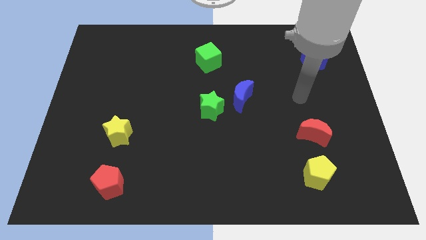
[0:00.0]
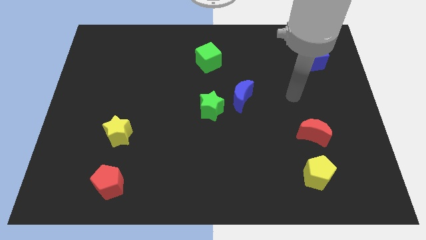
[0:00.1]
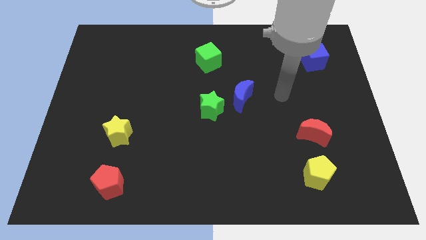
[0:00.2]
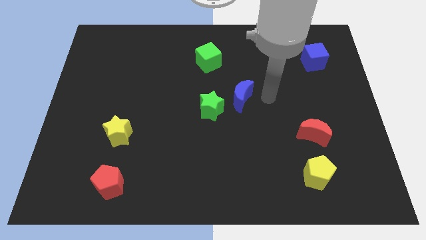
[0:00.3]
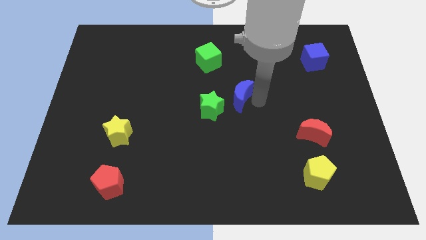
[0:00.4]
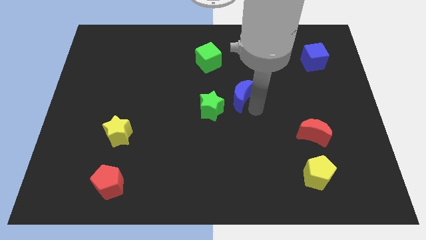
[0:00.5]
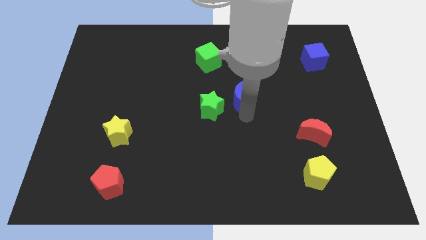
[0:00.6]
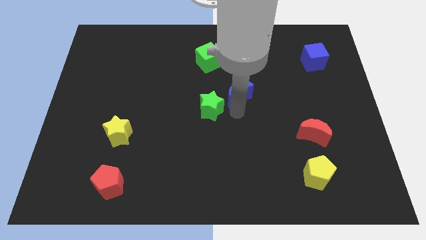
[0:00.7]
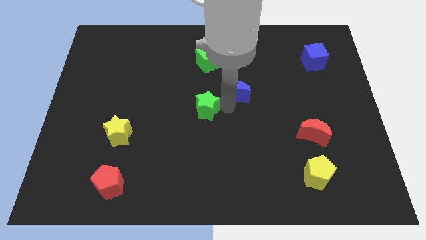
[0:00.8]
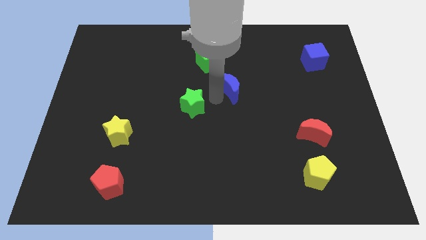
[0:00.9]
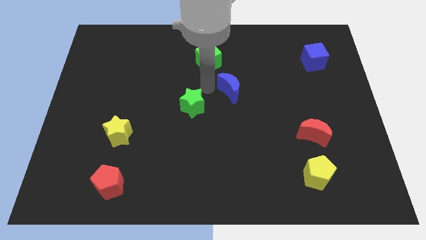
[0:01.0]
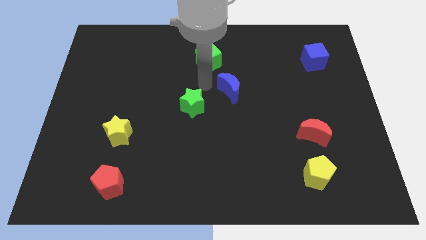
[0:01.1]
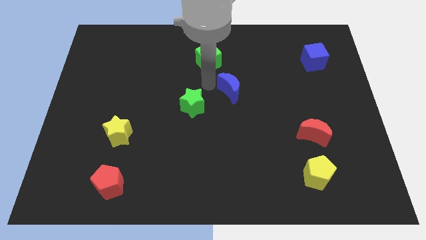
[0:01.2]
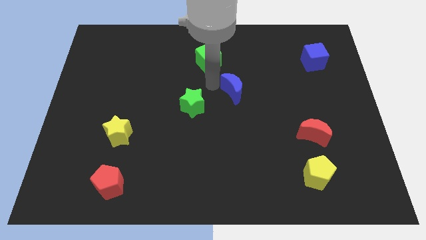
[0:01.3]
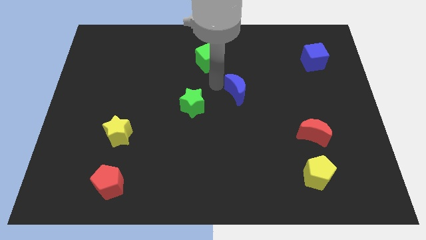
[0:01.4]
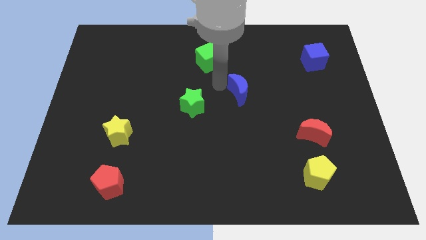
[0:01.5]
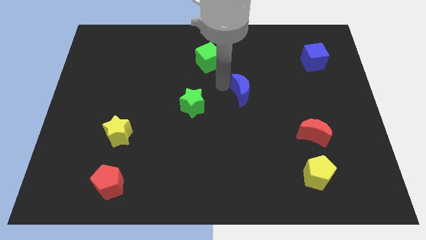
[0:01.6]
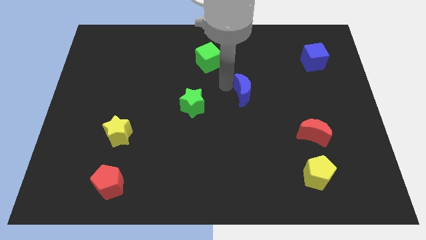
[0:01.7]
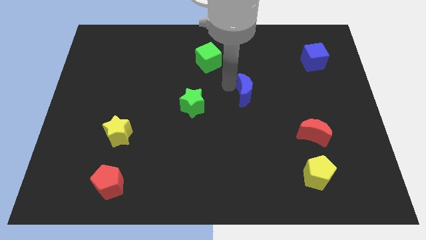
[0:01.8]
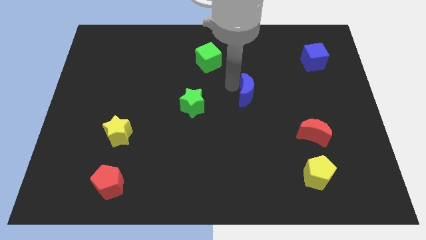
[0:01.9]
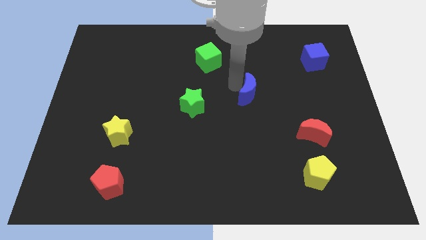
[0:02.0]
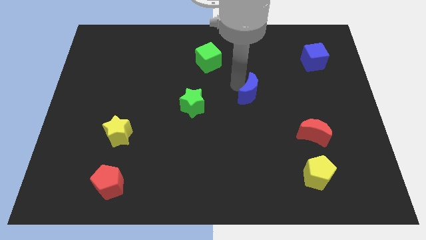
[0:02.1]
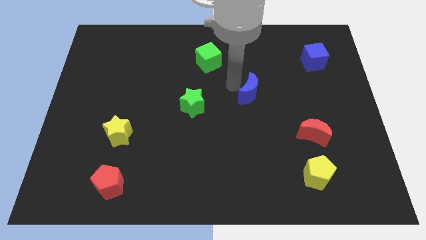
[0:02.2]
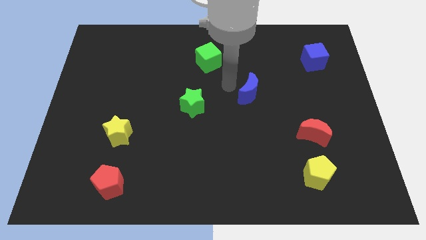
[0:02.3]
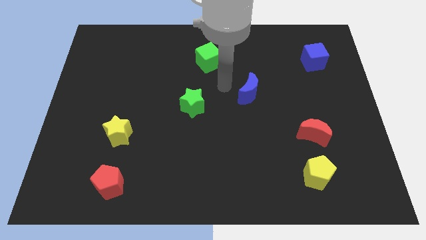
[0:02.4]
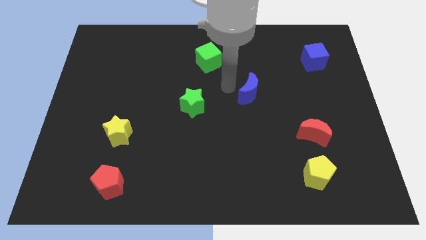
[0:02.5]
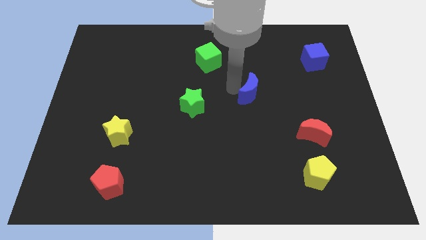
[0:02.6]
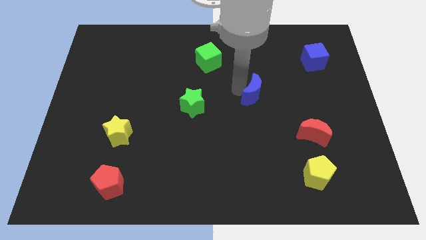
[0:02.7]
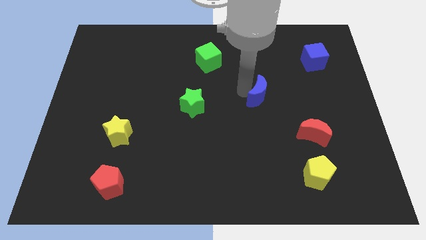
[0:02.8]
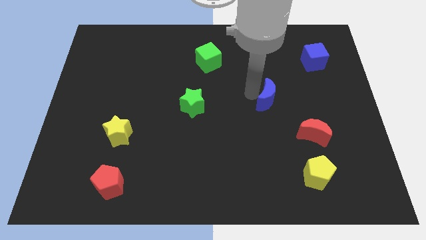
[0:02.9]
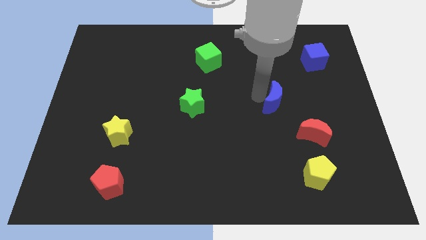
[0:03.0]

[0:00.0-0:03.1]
push the blue moon a bit to the right

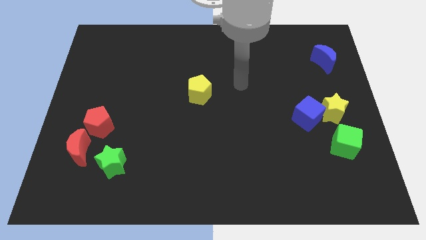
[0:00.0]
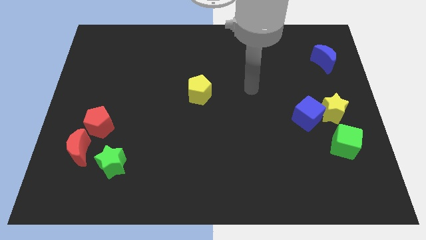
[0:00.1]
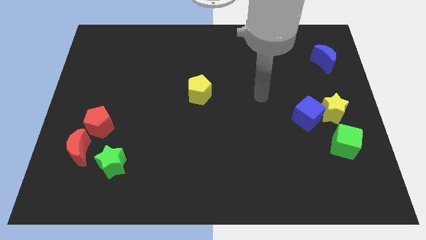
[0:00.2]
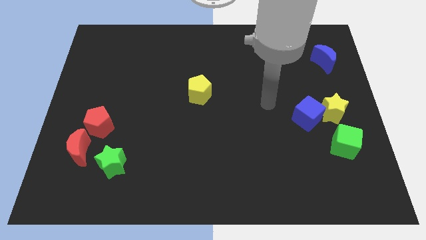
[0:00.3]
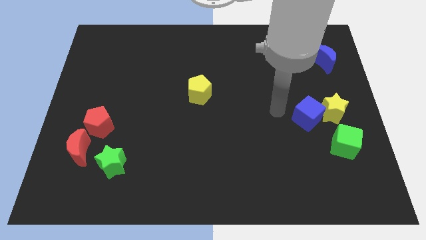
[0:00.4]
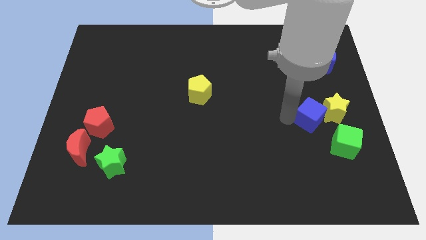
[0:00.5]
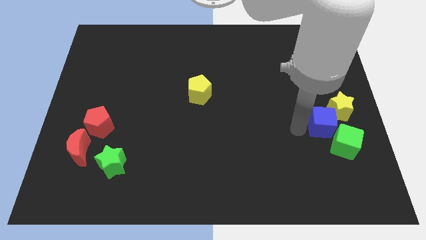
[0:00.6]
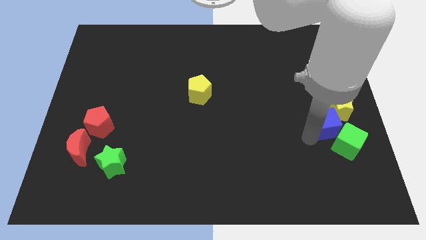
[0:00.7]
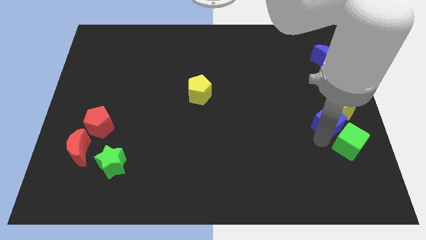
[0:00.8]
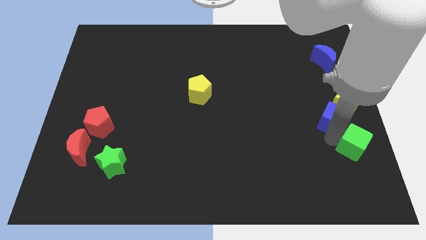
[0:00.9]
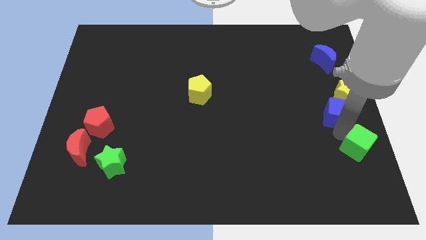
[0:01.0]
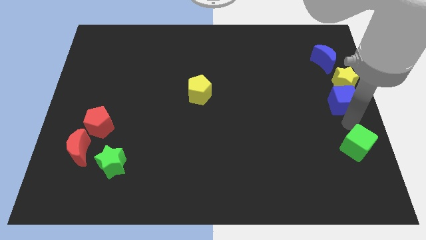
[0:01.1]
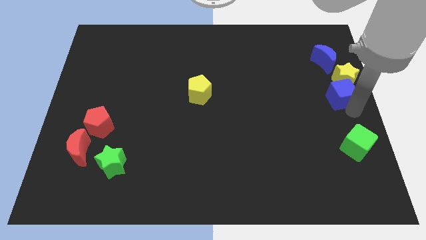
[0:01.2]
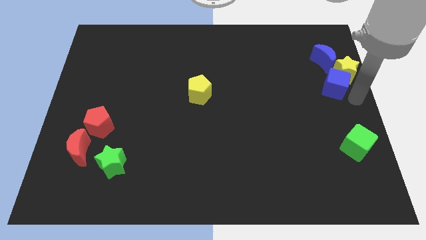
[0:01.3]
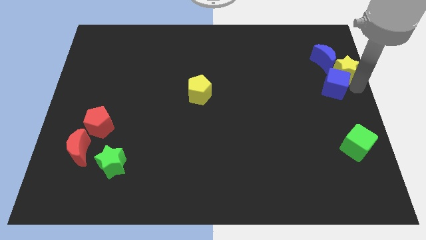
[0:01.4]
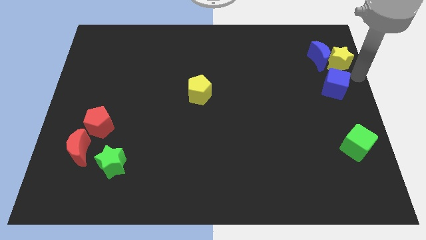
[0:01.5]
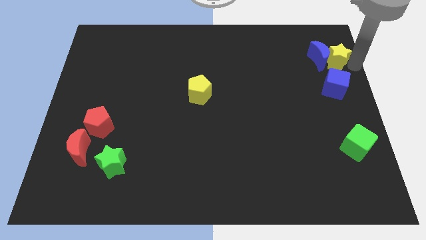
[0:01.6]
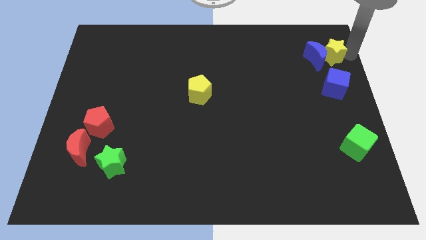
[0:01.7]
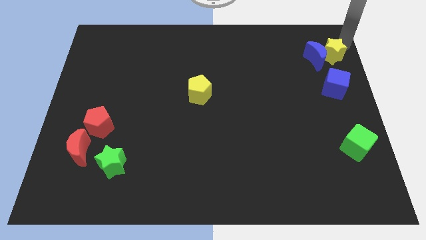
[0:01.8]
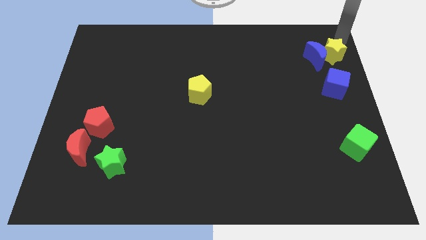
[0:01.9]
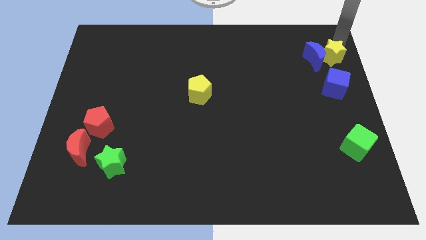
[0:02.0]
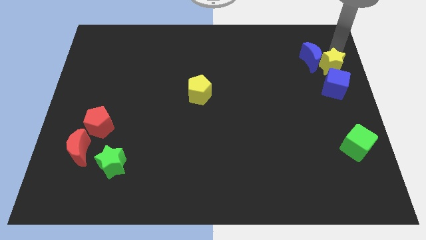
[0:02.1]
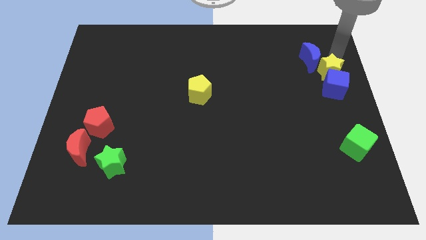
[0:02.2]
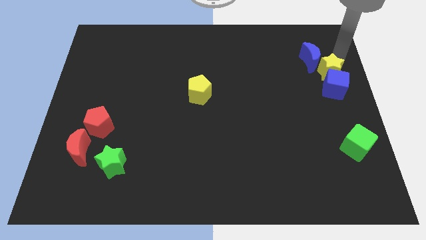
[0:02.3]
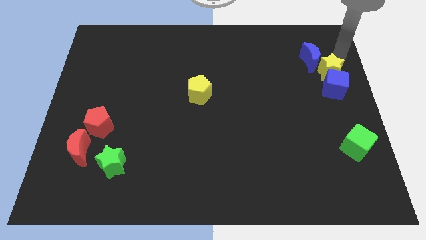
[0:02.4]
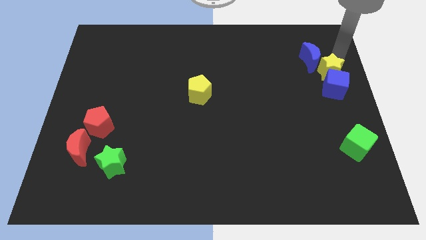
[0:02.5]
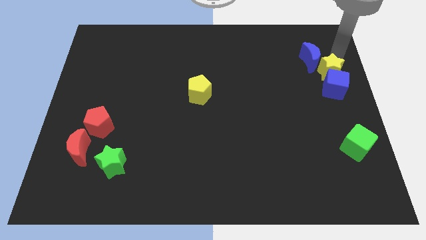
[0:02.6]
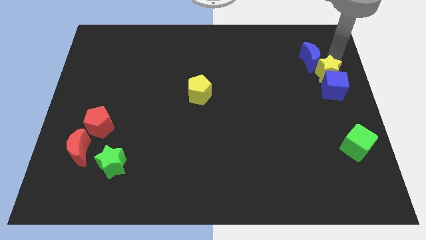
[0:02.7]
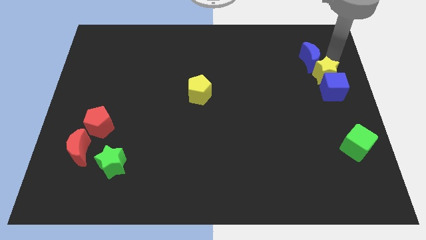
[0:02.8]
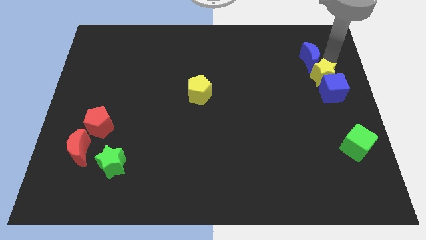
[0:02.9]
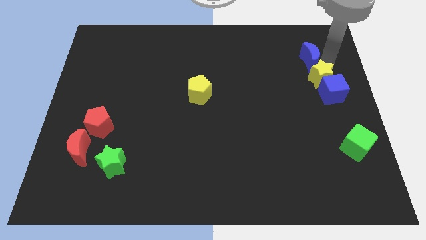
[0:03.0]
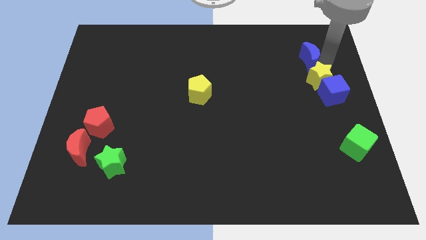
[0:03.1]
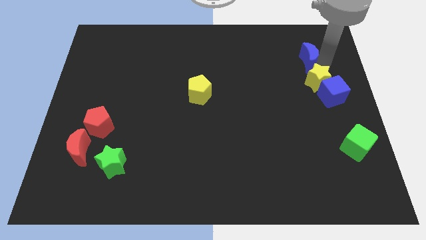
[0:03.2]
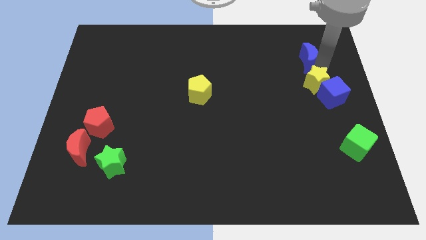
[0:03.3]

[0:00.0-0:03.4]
slightly push the yellow star upwards and to the left

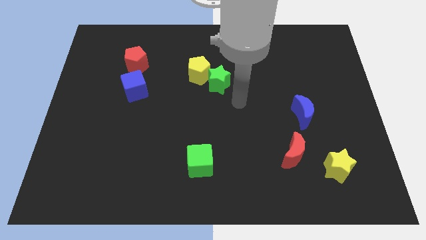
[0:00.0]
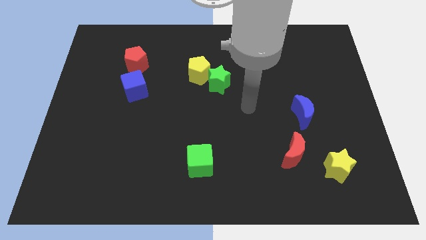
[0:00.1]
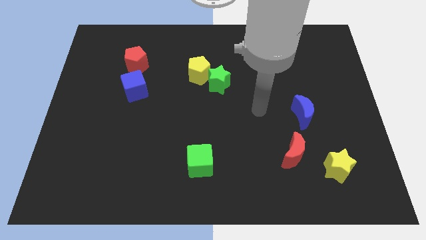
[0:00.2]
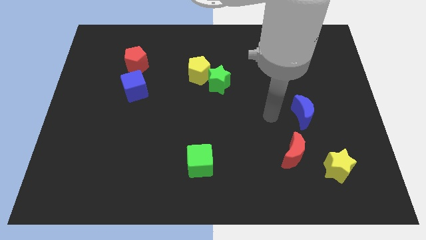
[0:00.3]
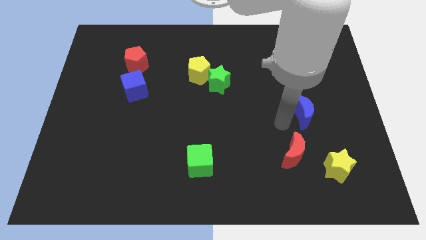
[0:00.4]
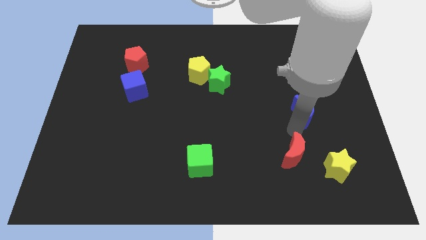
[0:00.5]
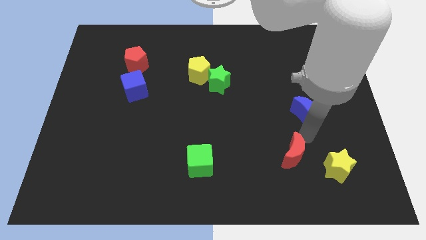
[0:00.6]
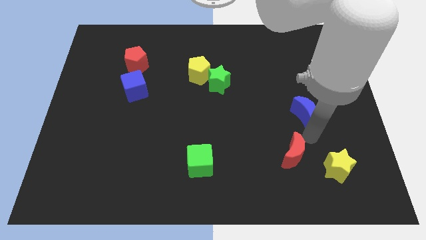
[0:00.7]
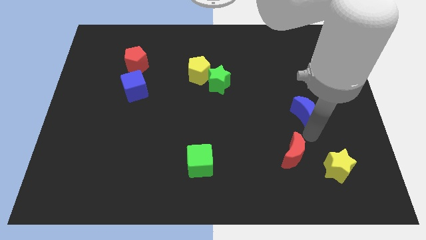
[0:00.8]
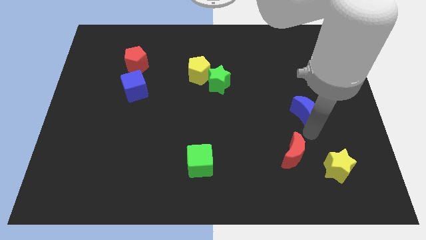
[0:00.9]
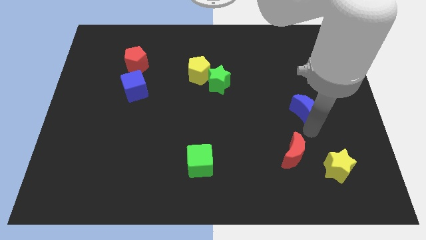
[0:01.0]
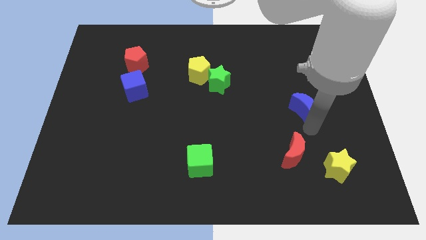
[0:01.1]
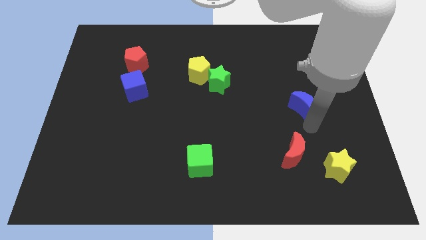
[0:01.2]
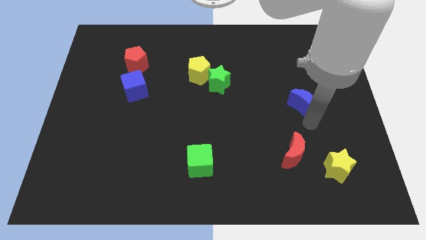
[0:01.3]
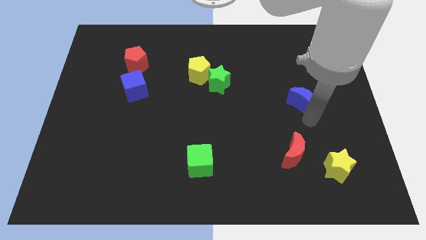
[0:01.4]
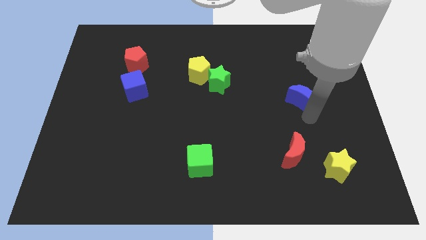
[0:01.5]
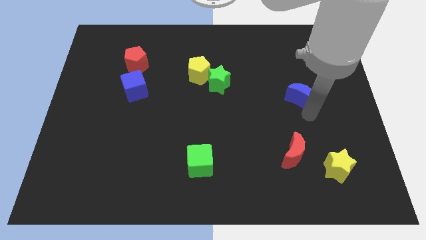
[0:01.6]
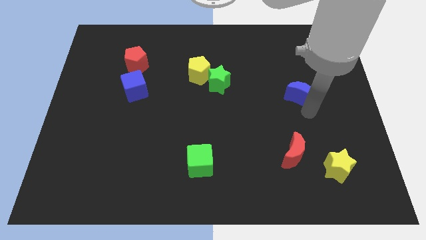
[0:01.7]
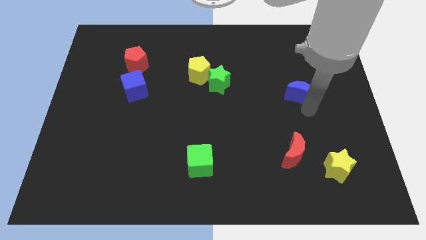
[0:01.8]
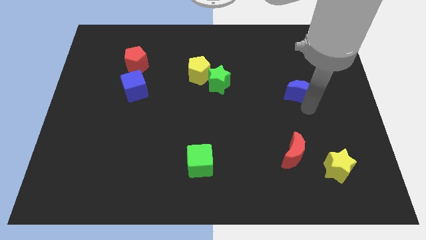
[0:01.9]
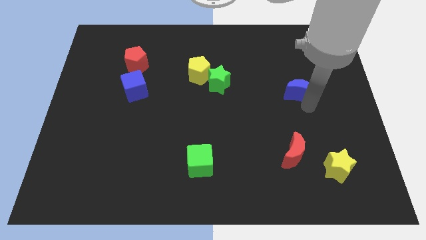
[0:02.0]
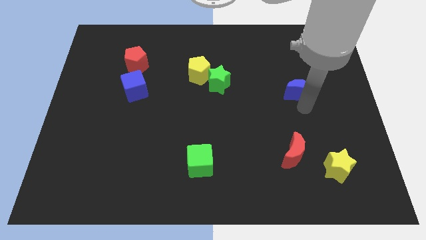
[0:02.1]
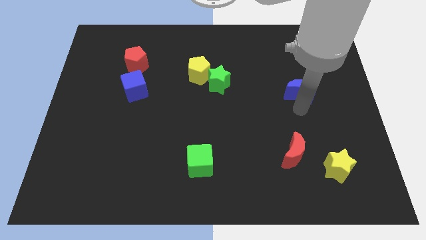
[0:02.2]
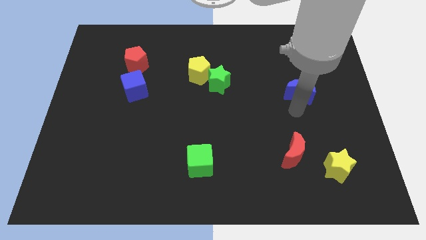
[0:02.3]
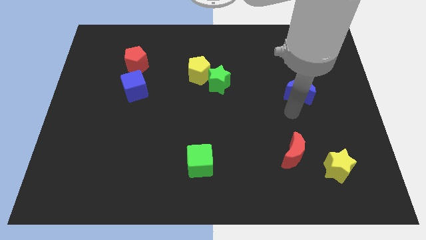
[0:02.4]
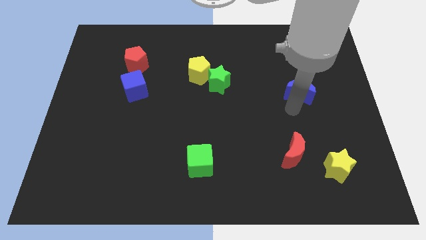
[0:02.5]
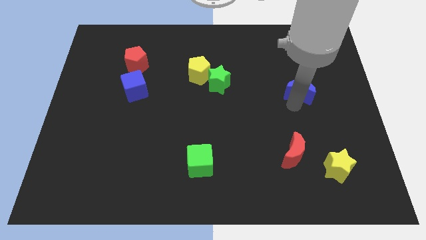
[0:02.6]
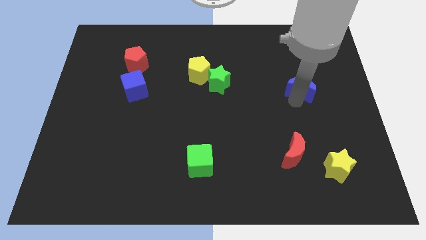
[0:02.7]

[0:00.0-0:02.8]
slightly push the blue moon upwards
